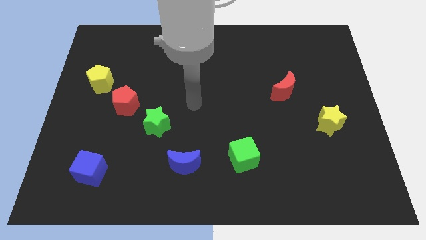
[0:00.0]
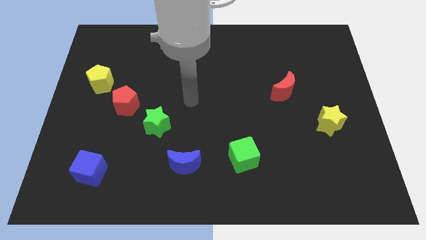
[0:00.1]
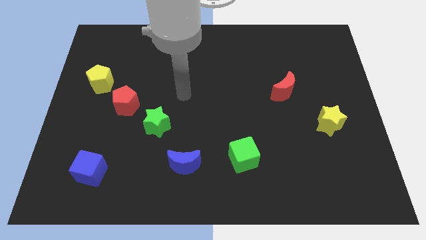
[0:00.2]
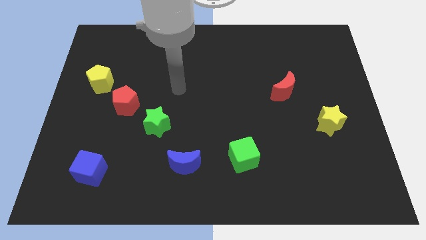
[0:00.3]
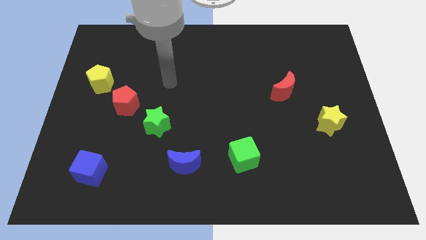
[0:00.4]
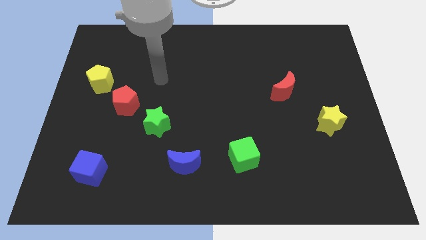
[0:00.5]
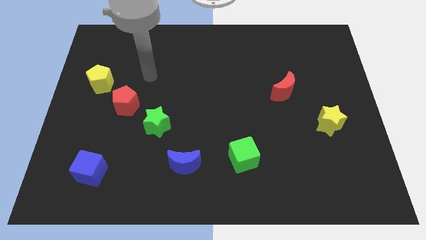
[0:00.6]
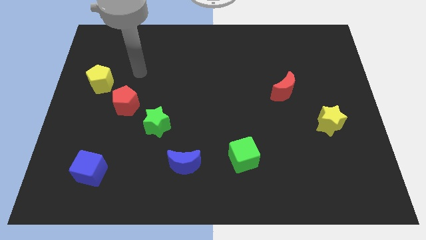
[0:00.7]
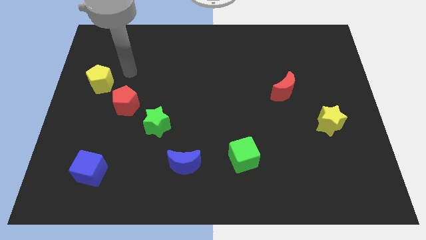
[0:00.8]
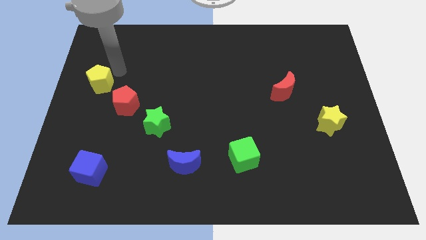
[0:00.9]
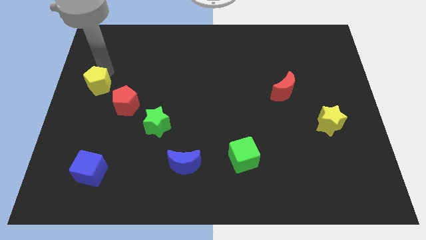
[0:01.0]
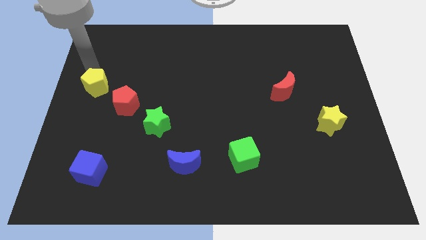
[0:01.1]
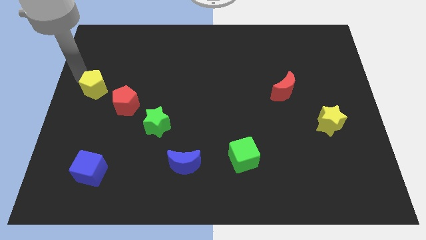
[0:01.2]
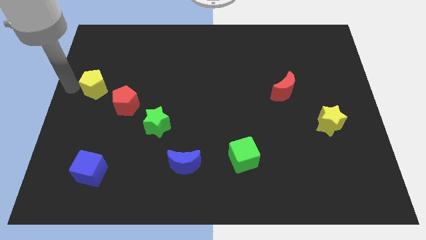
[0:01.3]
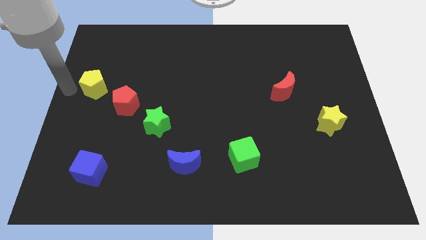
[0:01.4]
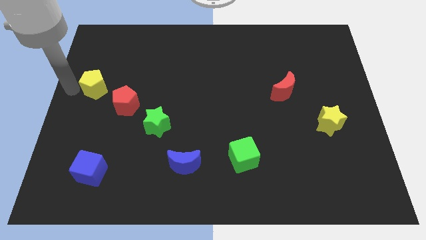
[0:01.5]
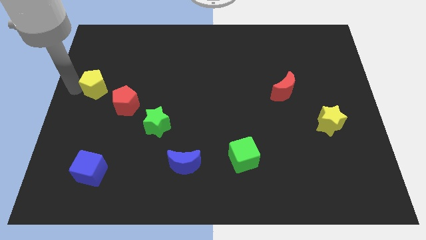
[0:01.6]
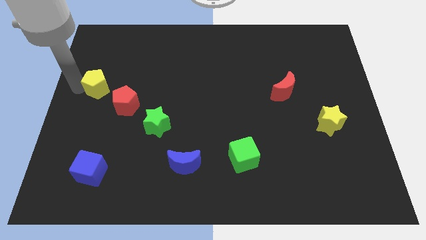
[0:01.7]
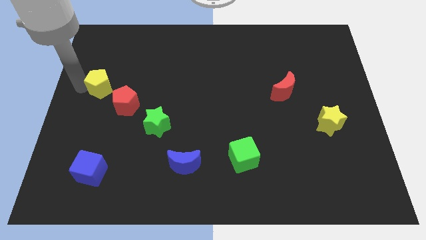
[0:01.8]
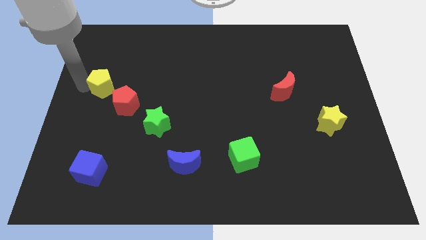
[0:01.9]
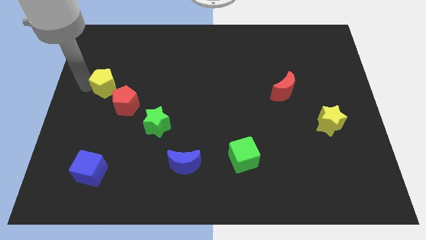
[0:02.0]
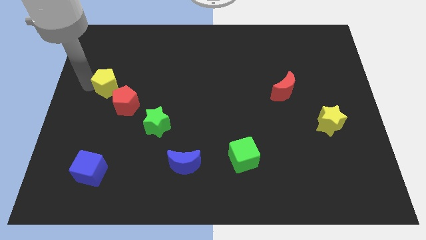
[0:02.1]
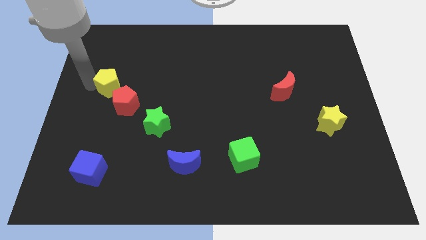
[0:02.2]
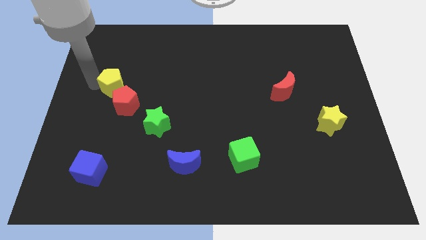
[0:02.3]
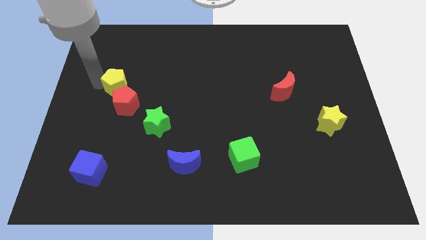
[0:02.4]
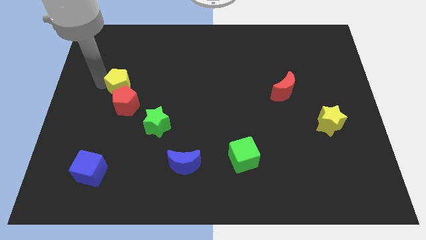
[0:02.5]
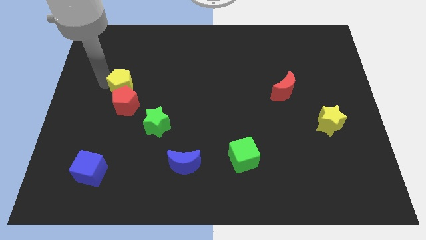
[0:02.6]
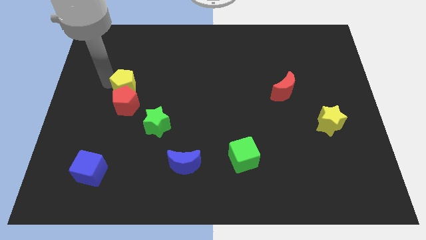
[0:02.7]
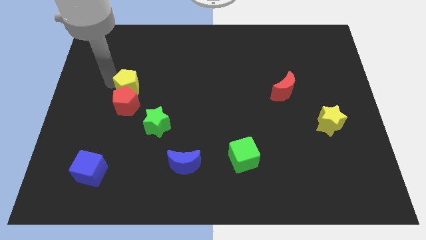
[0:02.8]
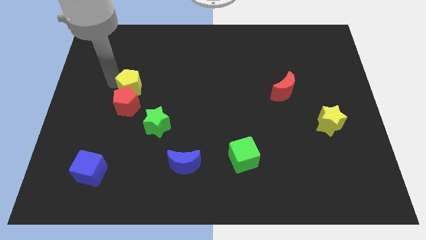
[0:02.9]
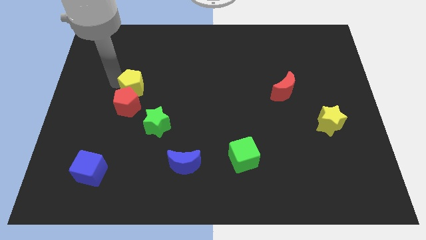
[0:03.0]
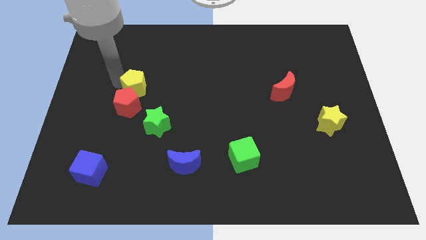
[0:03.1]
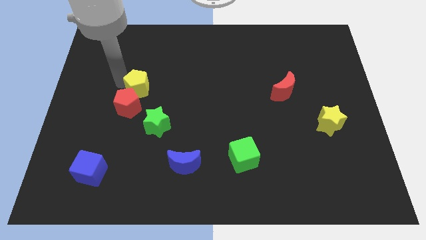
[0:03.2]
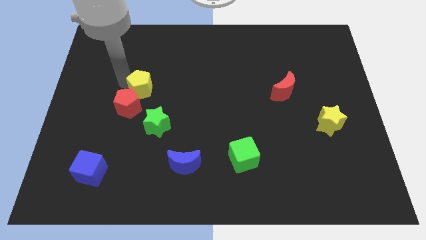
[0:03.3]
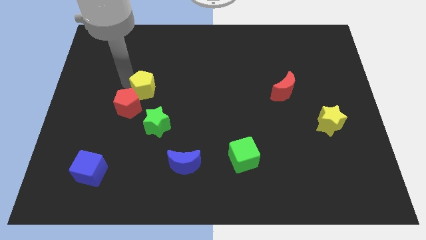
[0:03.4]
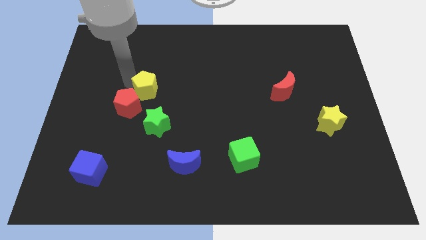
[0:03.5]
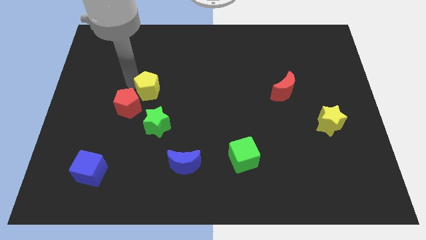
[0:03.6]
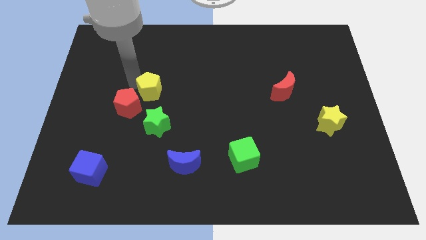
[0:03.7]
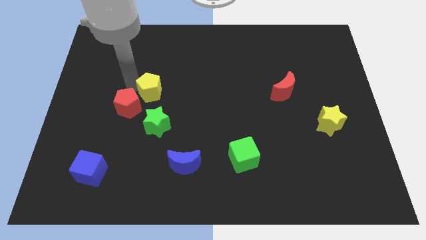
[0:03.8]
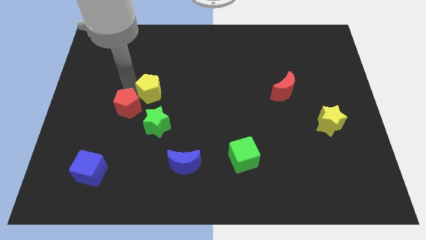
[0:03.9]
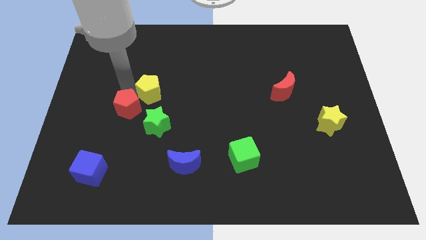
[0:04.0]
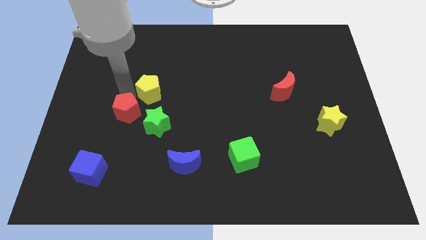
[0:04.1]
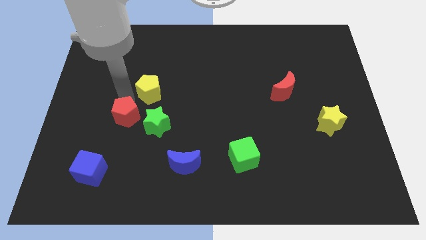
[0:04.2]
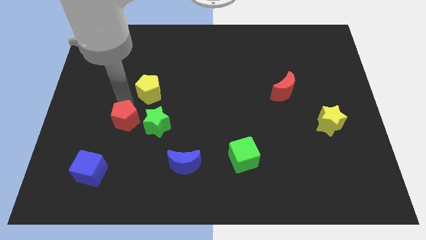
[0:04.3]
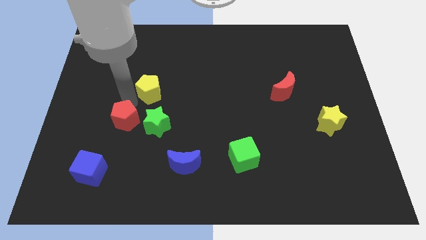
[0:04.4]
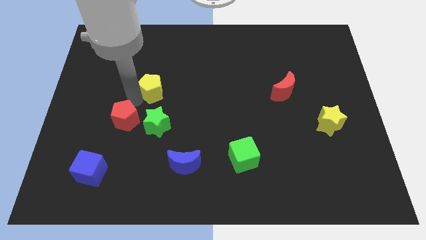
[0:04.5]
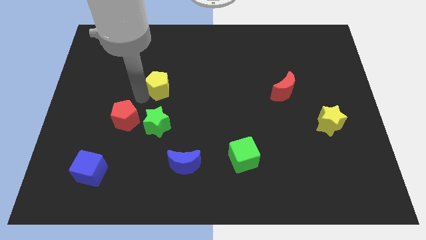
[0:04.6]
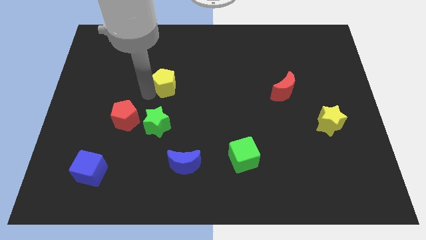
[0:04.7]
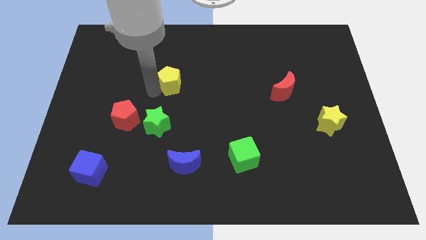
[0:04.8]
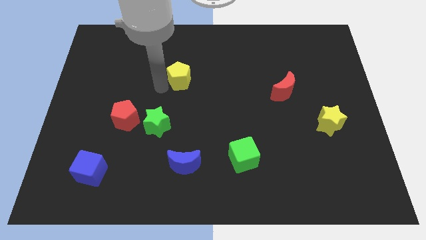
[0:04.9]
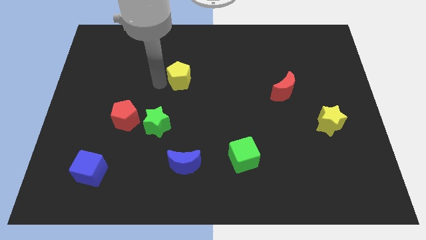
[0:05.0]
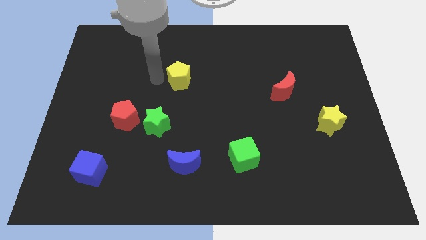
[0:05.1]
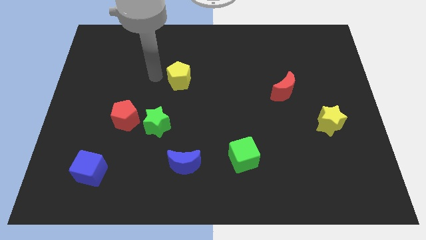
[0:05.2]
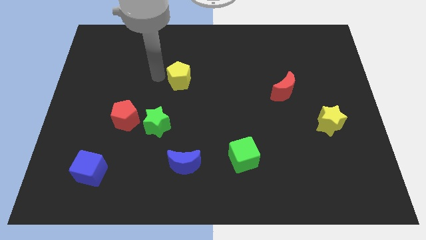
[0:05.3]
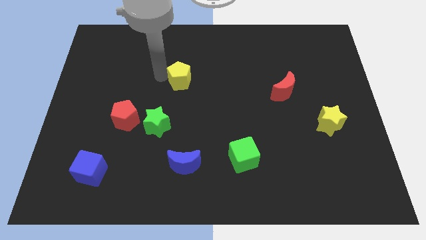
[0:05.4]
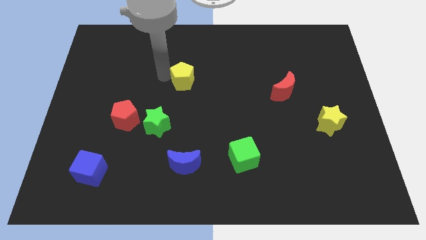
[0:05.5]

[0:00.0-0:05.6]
slide the yellow pentagon to the right

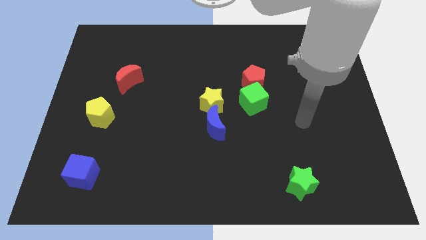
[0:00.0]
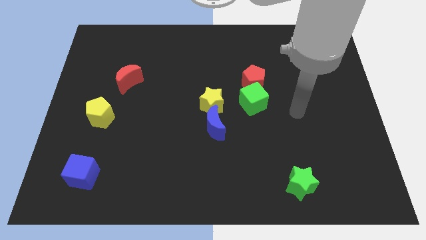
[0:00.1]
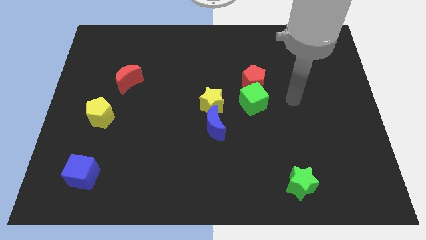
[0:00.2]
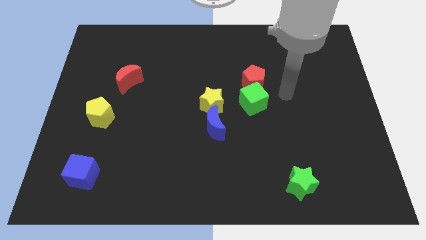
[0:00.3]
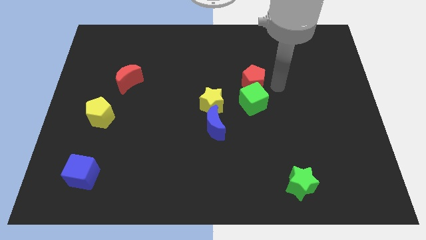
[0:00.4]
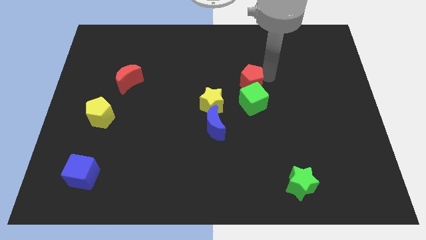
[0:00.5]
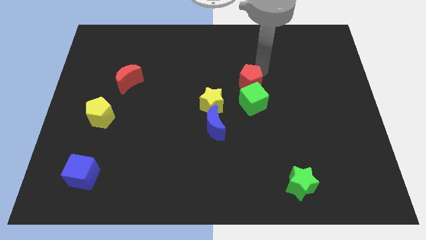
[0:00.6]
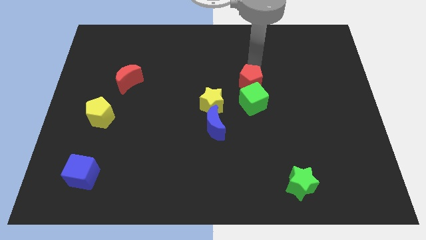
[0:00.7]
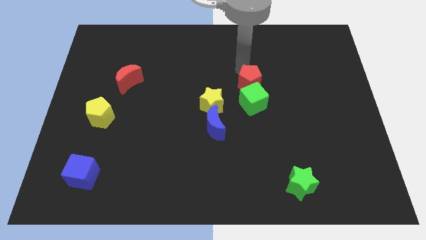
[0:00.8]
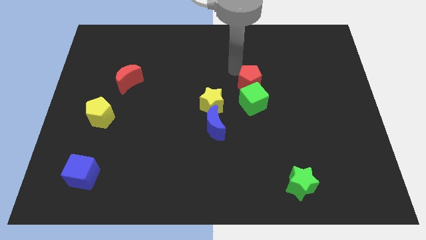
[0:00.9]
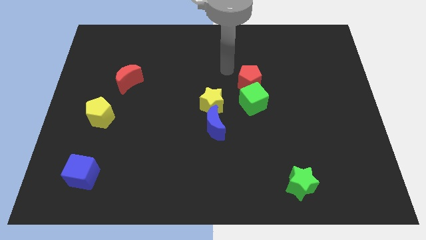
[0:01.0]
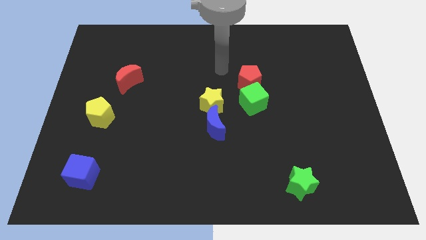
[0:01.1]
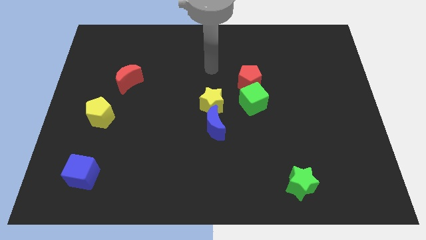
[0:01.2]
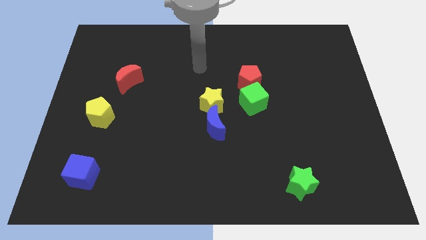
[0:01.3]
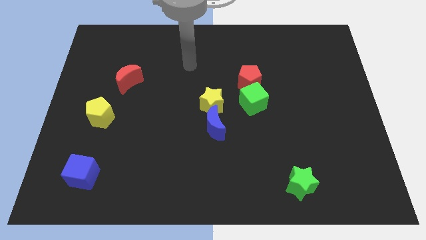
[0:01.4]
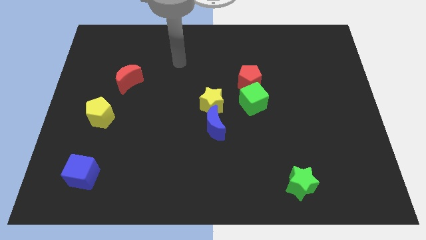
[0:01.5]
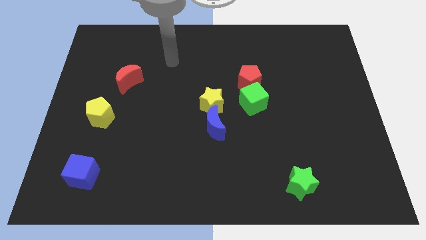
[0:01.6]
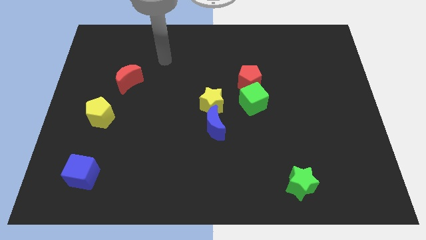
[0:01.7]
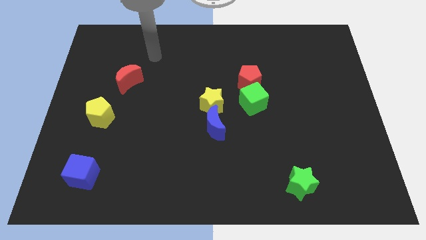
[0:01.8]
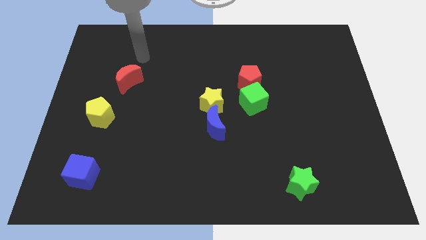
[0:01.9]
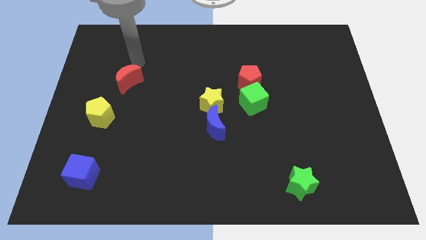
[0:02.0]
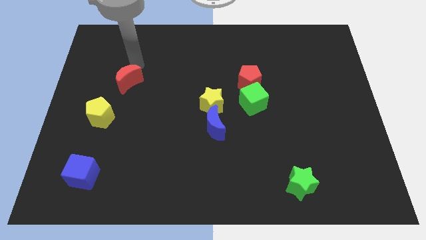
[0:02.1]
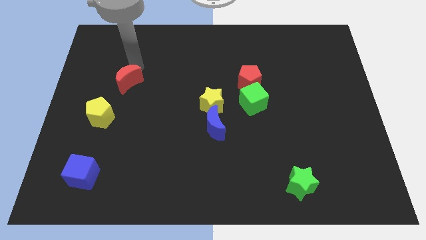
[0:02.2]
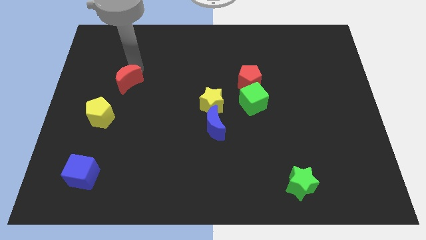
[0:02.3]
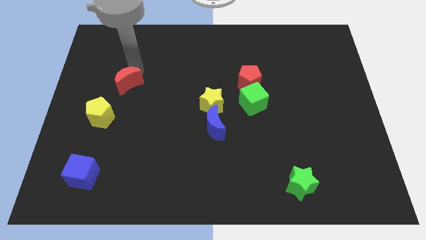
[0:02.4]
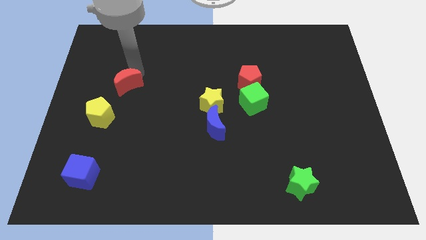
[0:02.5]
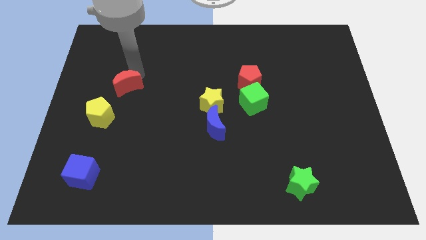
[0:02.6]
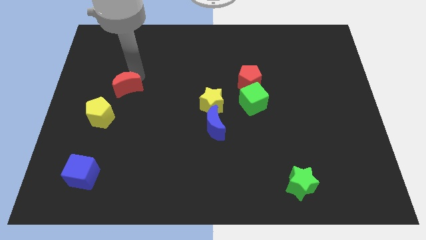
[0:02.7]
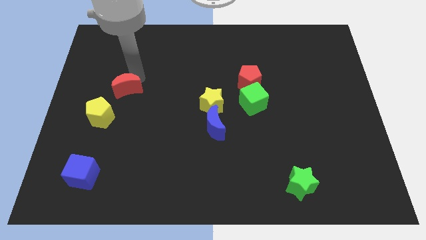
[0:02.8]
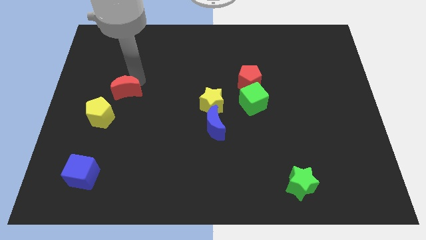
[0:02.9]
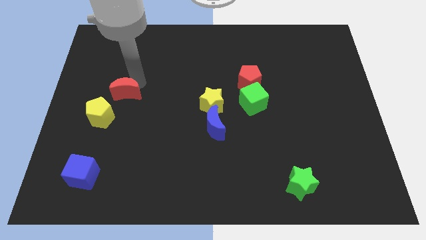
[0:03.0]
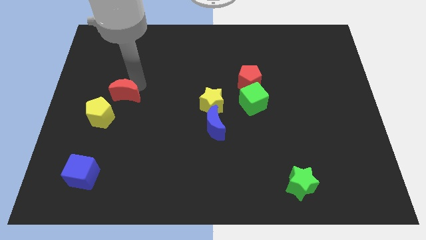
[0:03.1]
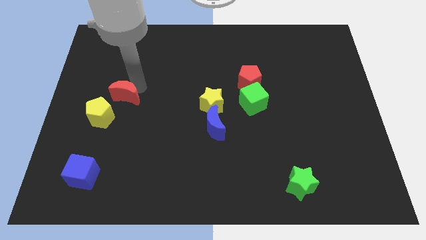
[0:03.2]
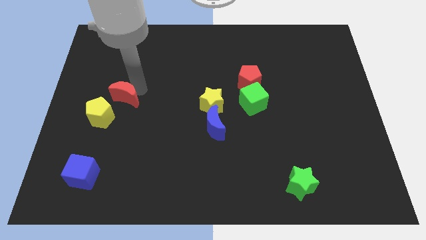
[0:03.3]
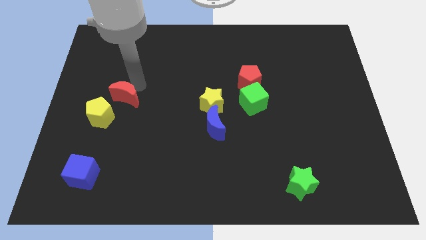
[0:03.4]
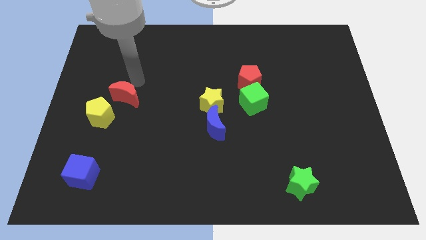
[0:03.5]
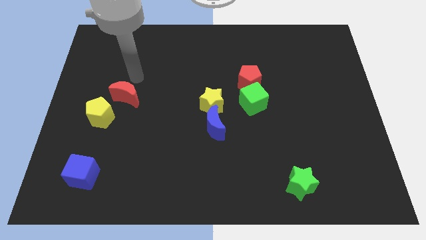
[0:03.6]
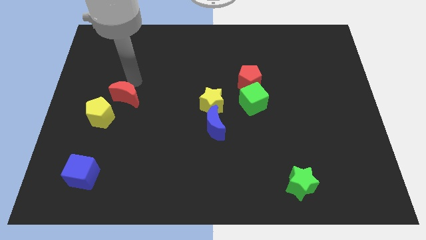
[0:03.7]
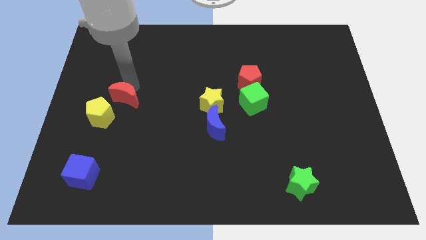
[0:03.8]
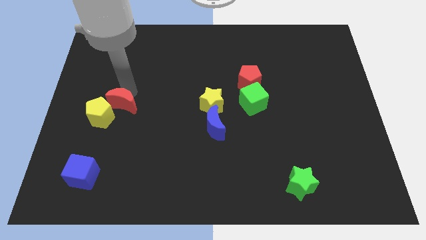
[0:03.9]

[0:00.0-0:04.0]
push the red moon down slightly
